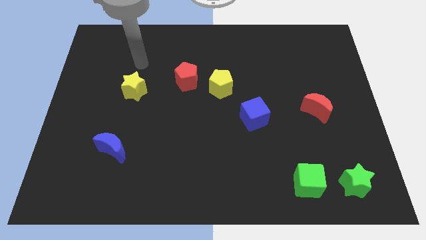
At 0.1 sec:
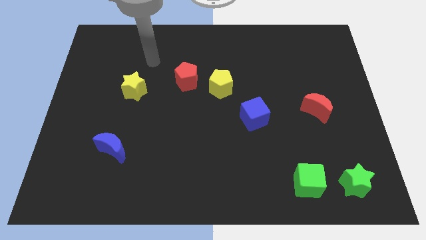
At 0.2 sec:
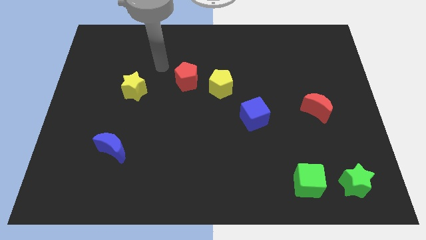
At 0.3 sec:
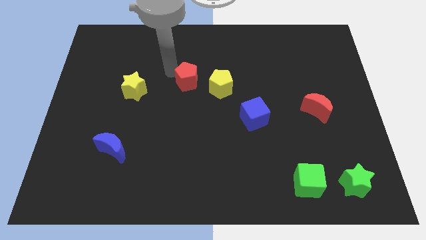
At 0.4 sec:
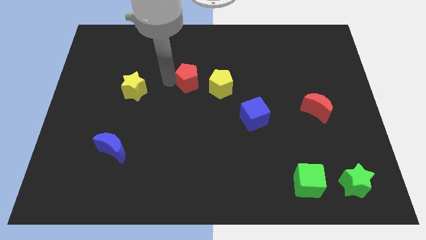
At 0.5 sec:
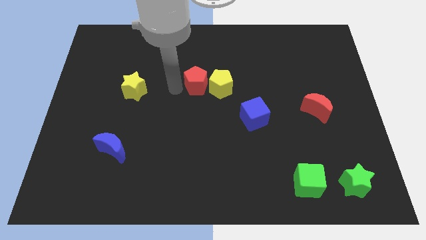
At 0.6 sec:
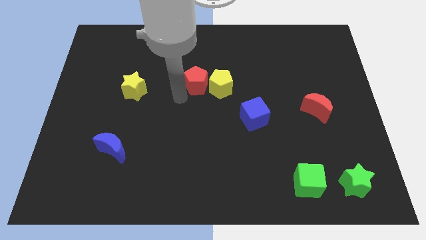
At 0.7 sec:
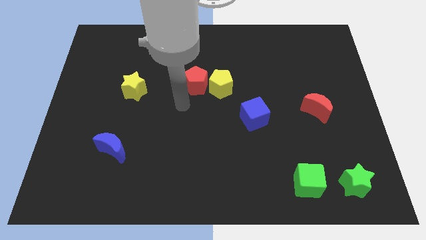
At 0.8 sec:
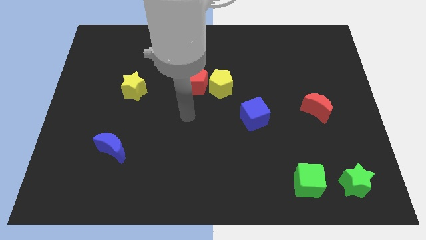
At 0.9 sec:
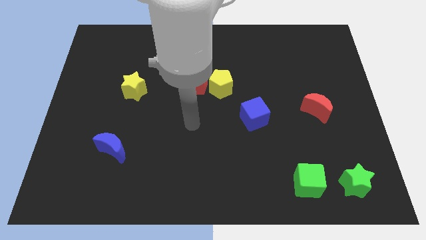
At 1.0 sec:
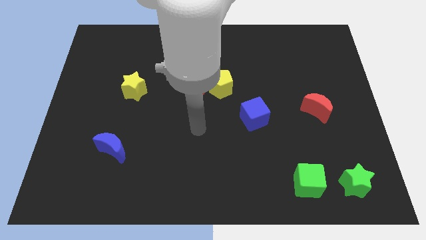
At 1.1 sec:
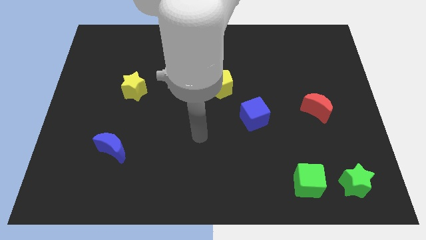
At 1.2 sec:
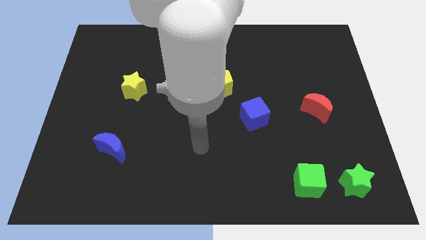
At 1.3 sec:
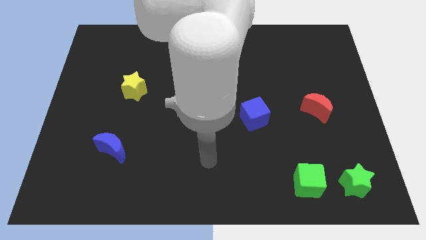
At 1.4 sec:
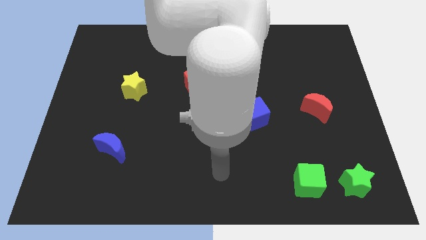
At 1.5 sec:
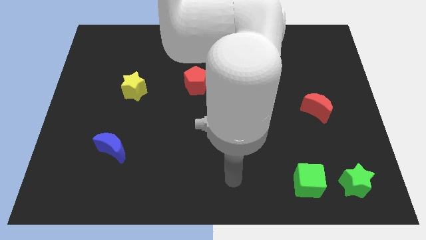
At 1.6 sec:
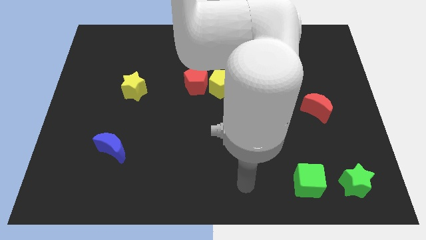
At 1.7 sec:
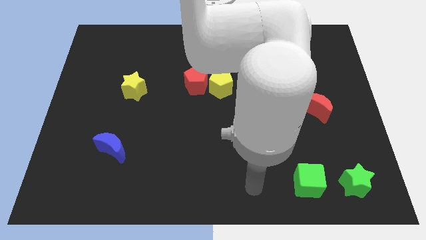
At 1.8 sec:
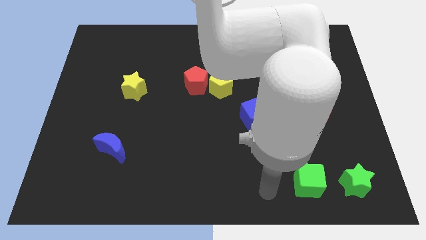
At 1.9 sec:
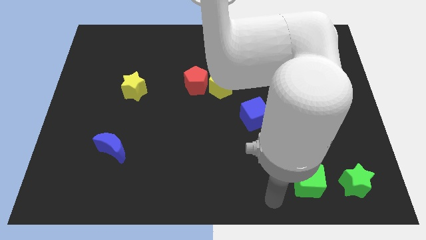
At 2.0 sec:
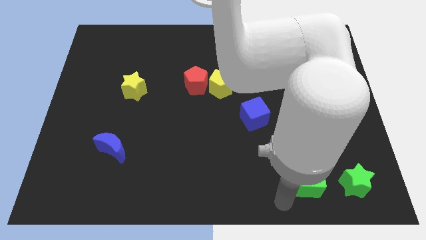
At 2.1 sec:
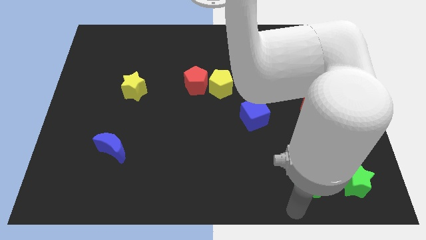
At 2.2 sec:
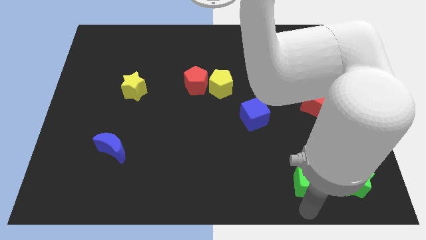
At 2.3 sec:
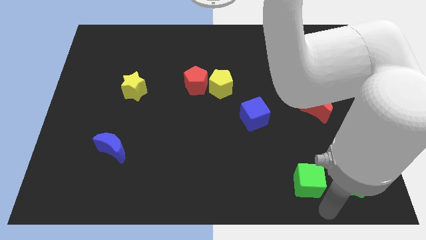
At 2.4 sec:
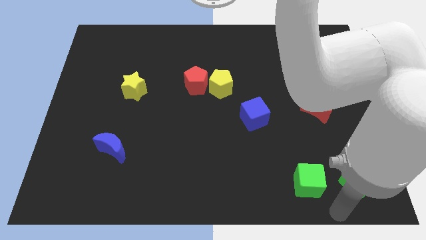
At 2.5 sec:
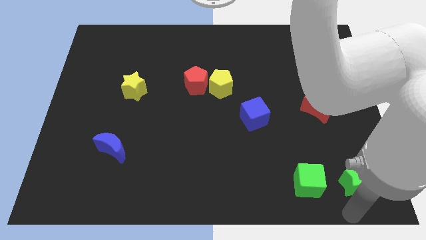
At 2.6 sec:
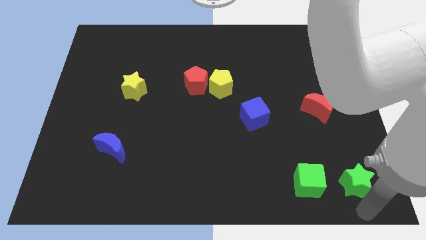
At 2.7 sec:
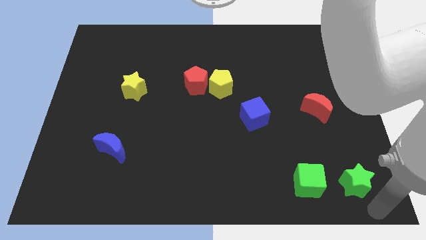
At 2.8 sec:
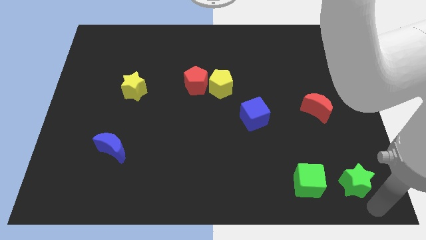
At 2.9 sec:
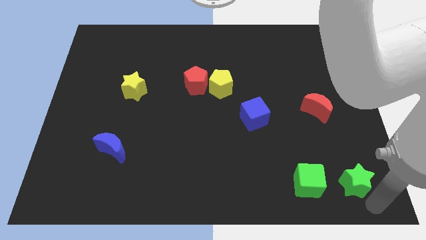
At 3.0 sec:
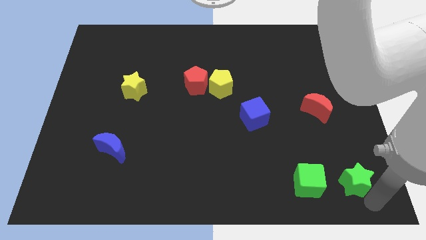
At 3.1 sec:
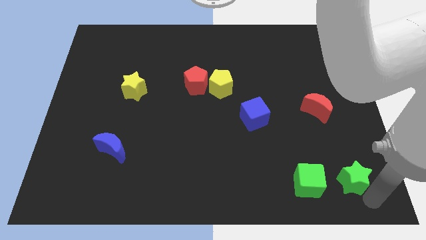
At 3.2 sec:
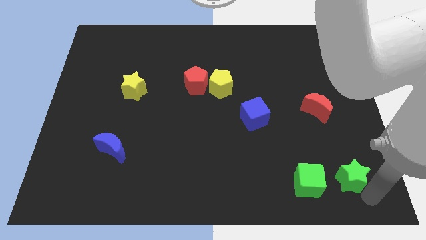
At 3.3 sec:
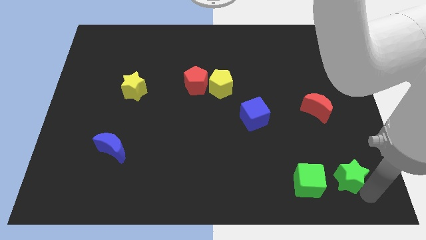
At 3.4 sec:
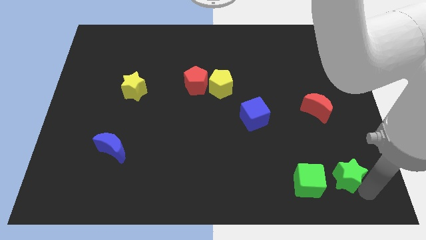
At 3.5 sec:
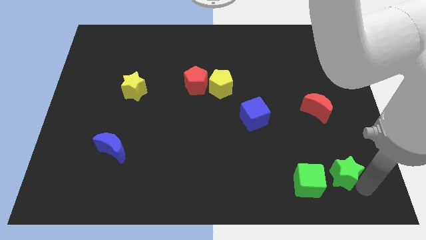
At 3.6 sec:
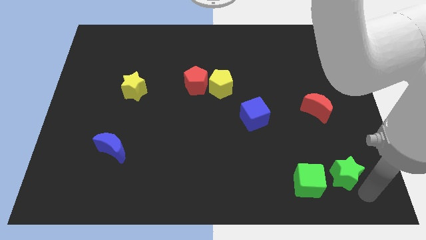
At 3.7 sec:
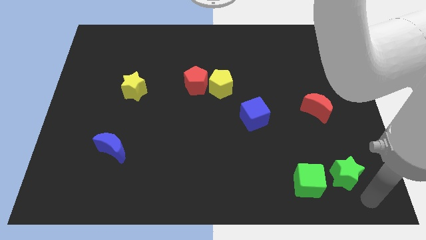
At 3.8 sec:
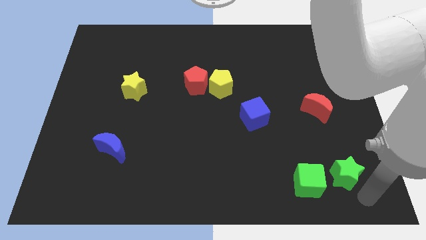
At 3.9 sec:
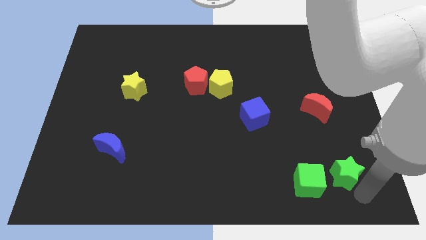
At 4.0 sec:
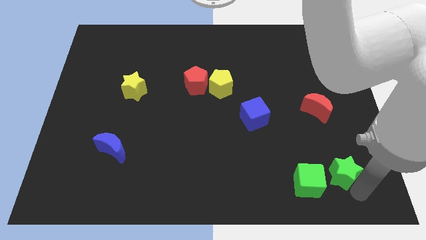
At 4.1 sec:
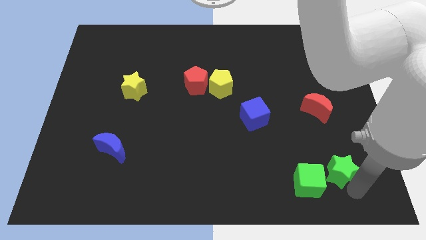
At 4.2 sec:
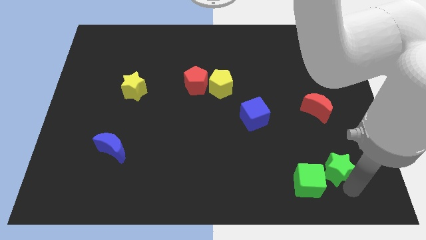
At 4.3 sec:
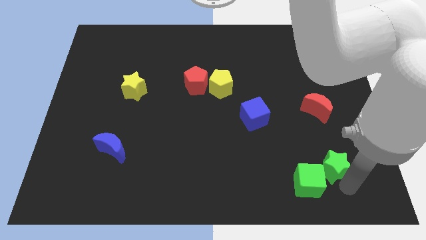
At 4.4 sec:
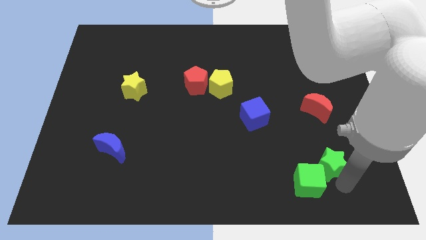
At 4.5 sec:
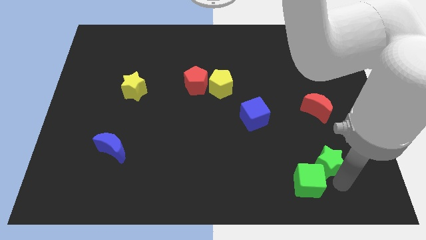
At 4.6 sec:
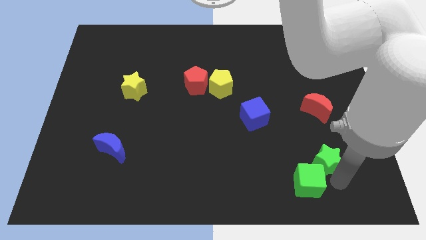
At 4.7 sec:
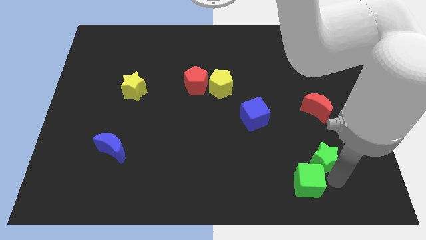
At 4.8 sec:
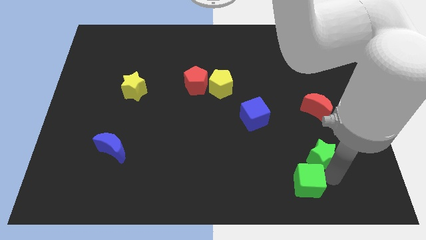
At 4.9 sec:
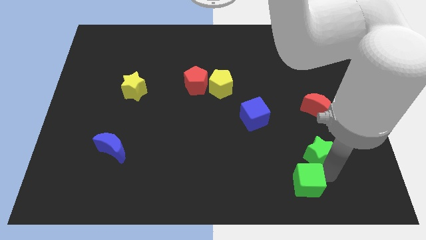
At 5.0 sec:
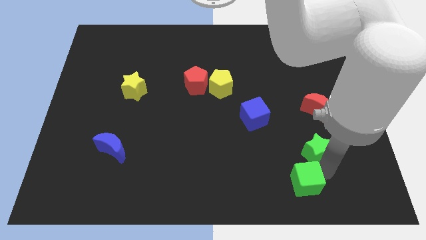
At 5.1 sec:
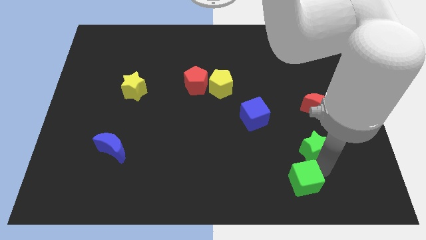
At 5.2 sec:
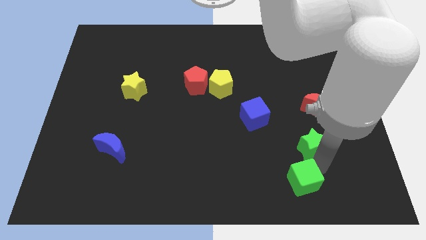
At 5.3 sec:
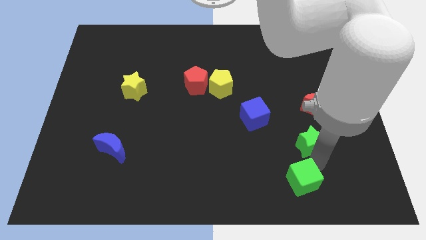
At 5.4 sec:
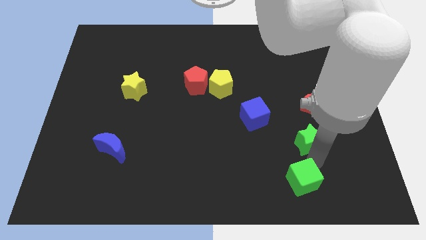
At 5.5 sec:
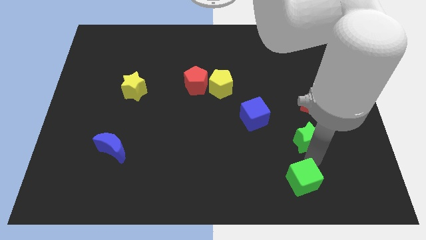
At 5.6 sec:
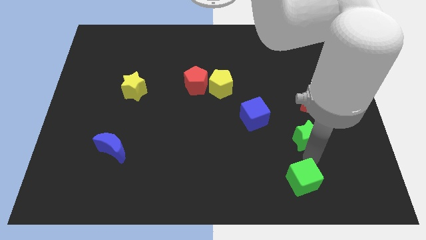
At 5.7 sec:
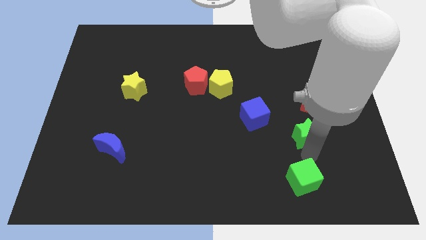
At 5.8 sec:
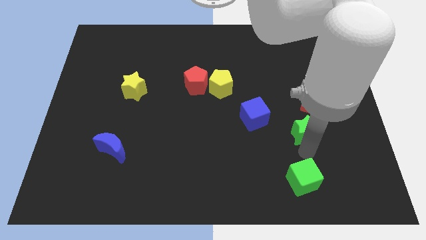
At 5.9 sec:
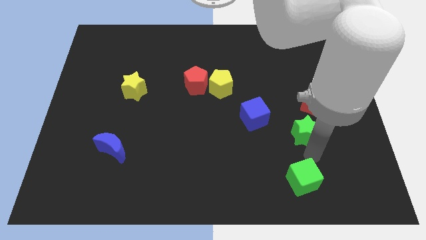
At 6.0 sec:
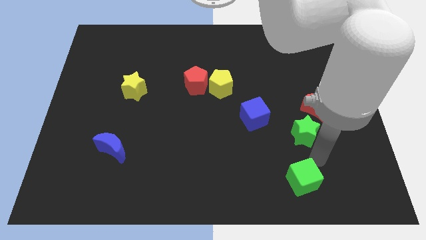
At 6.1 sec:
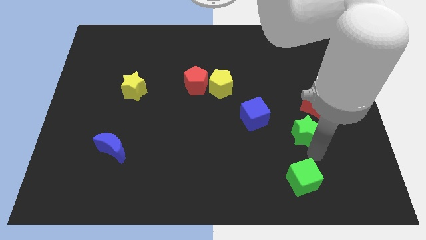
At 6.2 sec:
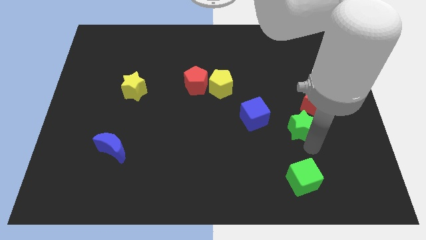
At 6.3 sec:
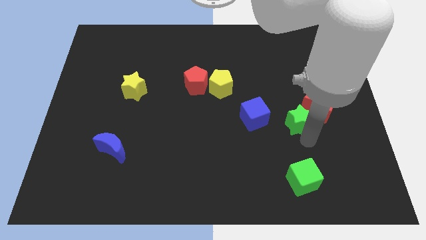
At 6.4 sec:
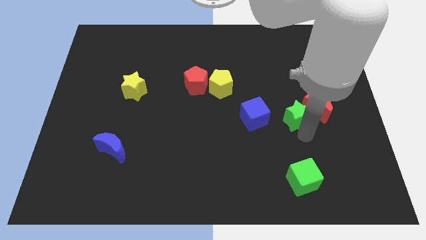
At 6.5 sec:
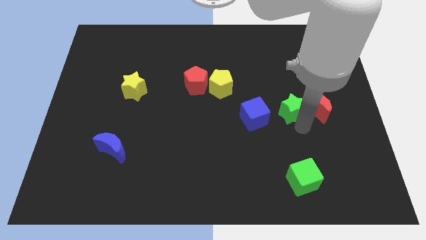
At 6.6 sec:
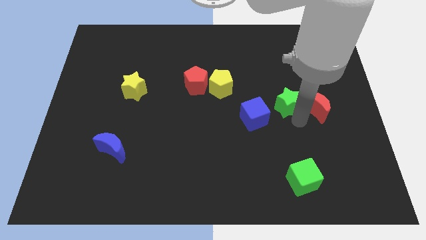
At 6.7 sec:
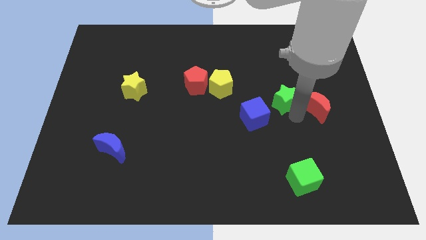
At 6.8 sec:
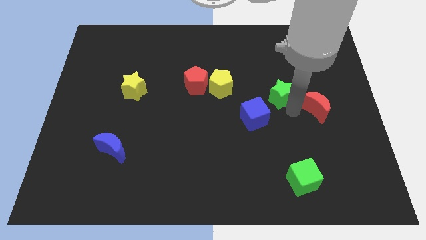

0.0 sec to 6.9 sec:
slide the green star right of the yellow pentagon
